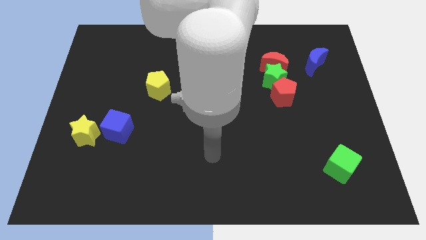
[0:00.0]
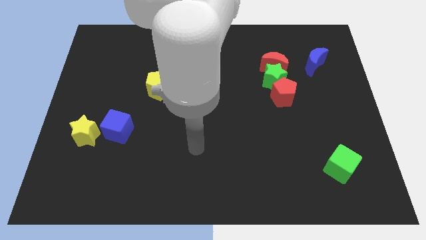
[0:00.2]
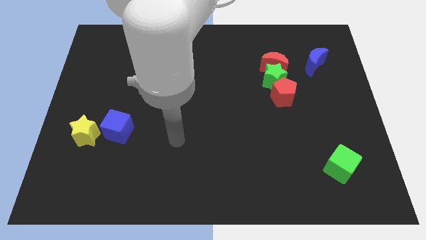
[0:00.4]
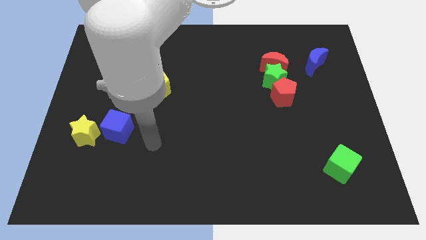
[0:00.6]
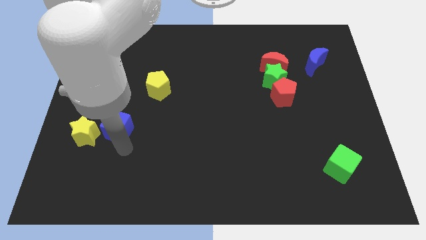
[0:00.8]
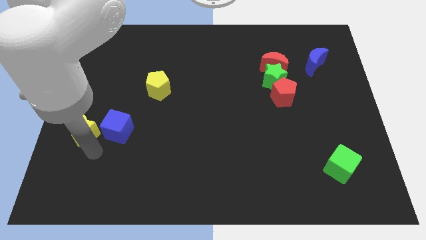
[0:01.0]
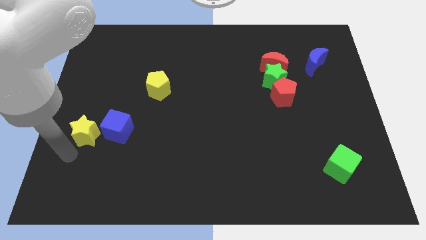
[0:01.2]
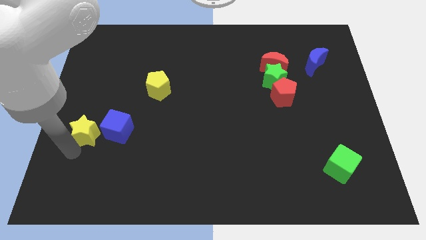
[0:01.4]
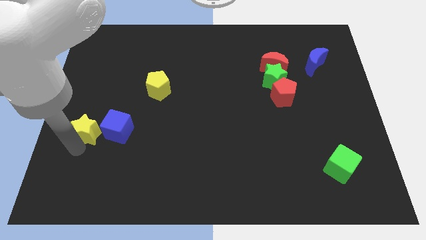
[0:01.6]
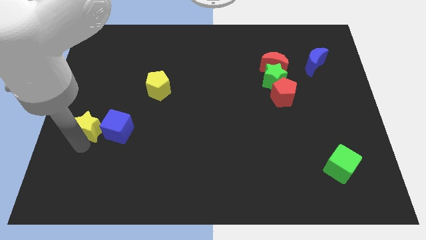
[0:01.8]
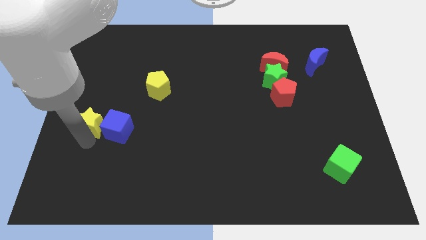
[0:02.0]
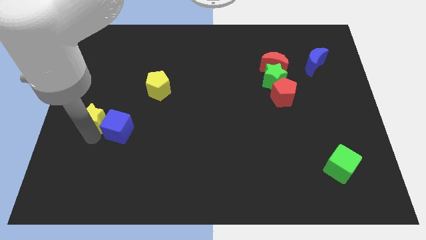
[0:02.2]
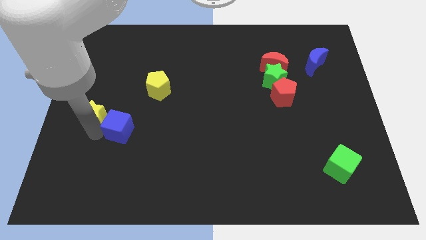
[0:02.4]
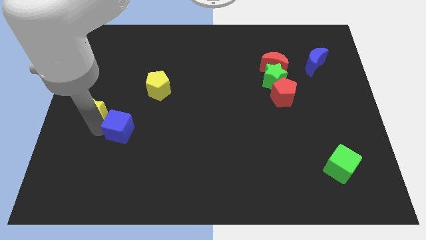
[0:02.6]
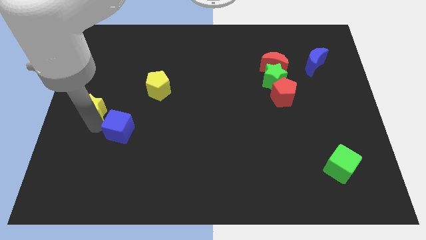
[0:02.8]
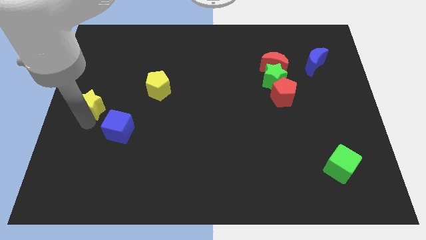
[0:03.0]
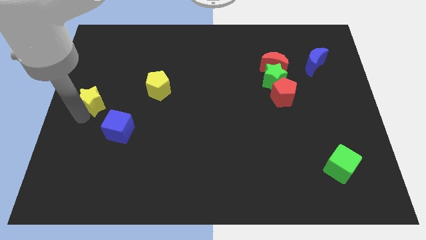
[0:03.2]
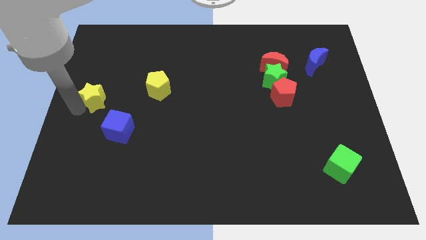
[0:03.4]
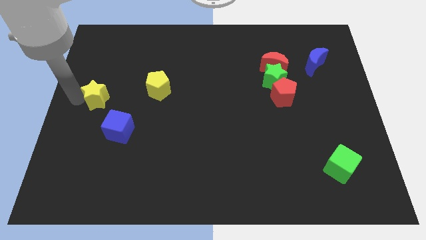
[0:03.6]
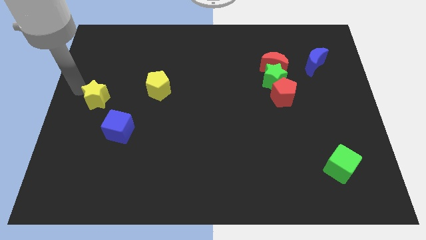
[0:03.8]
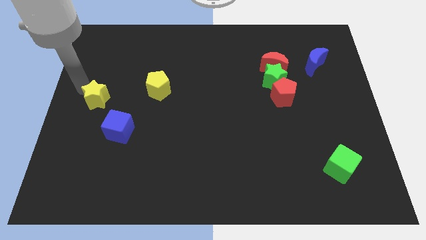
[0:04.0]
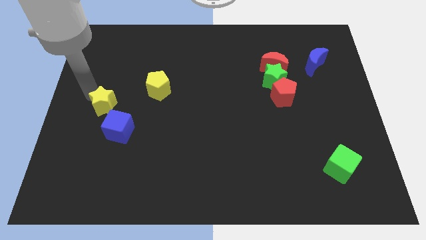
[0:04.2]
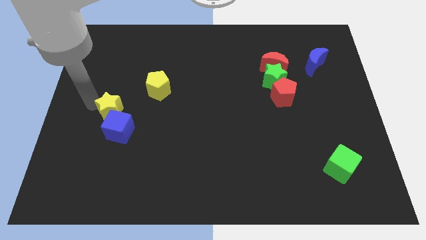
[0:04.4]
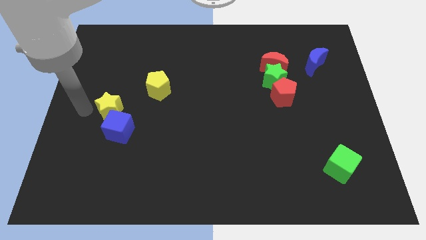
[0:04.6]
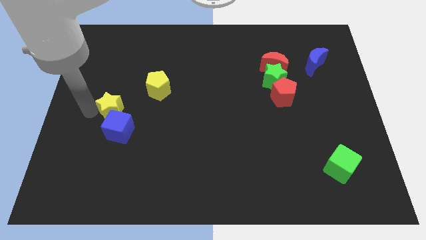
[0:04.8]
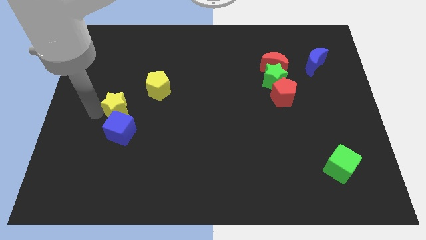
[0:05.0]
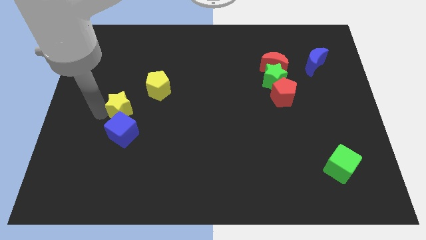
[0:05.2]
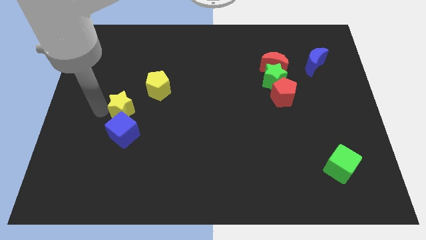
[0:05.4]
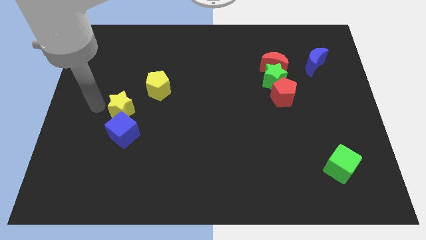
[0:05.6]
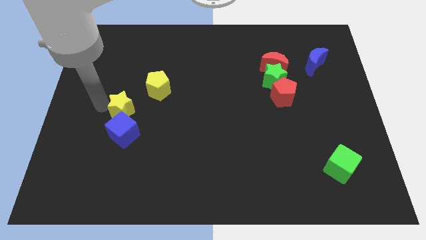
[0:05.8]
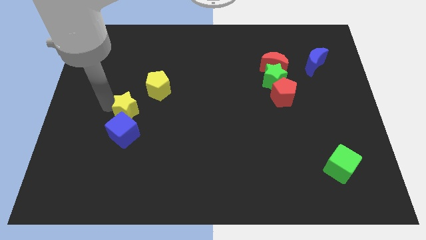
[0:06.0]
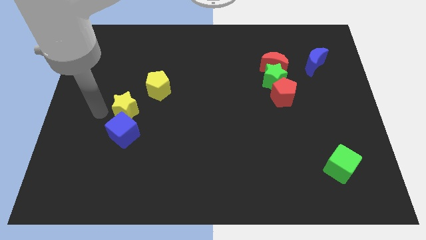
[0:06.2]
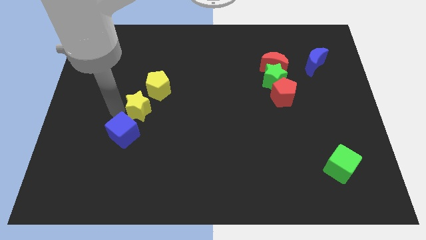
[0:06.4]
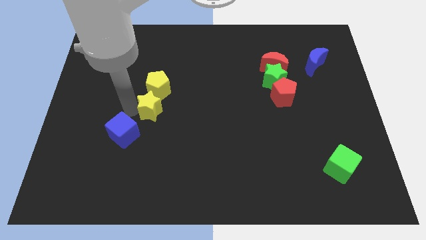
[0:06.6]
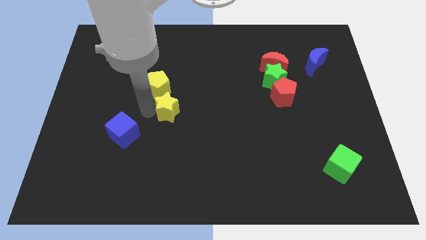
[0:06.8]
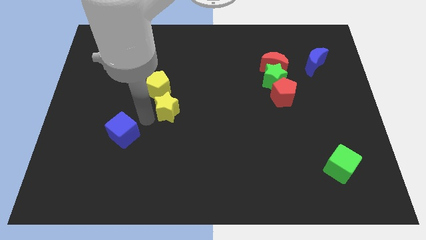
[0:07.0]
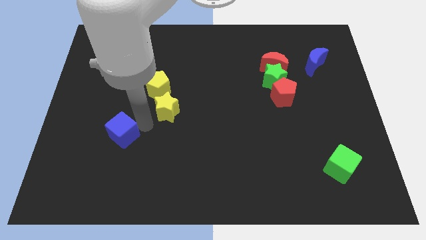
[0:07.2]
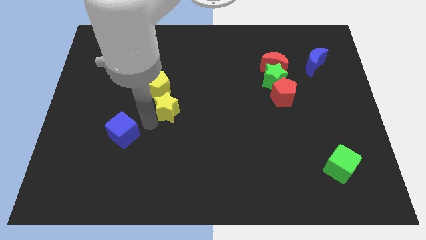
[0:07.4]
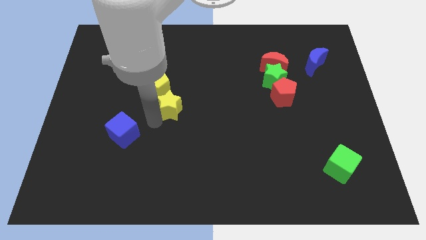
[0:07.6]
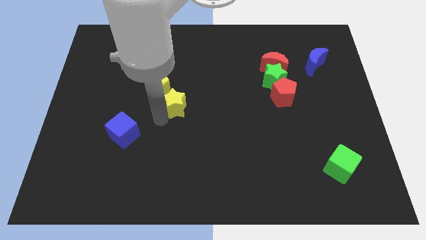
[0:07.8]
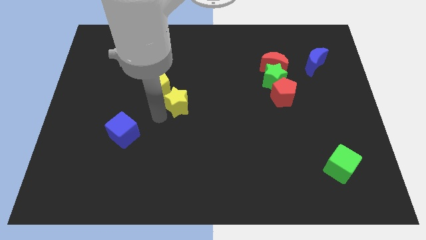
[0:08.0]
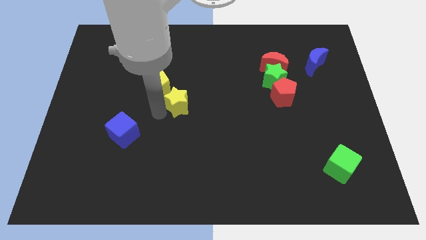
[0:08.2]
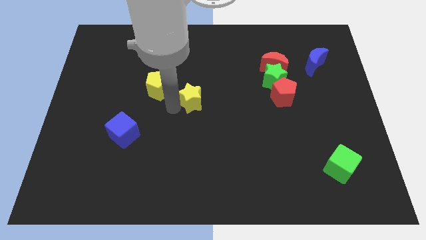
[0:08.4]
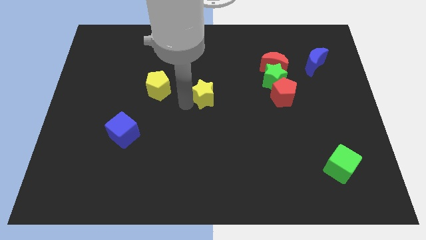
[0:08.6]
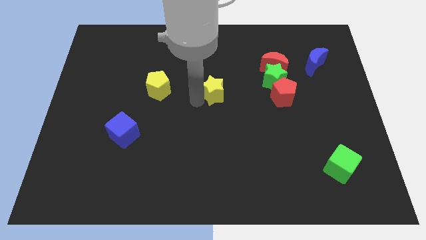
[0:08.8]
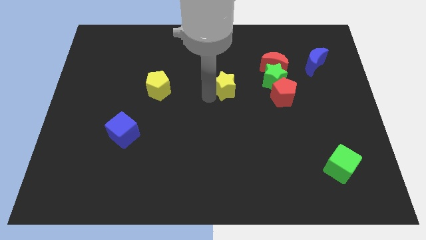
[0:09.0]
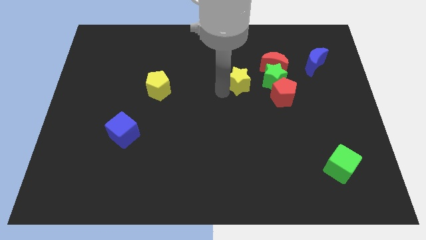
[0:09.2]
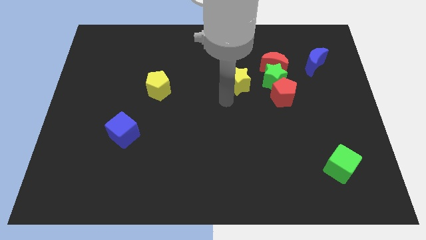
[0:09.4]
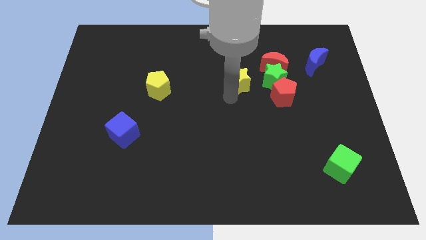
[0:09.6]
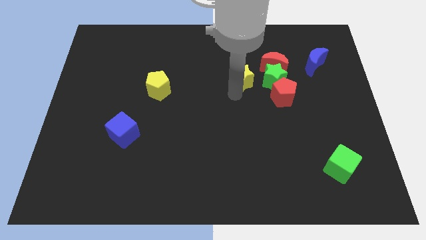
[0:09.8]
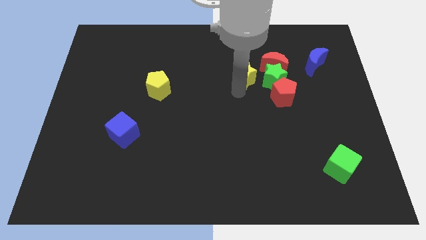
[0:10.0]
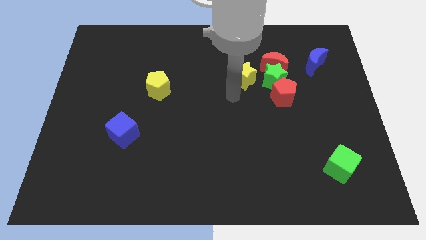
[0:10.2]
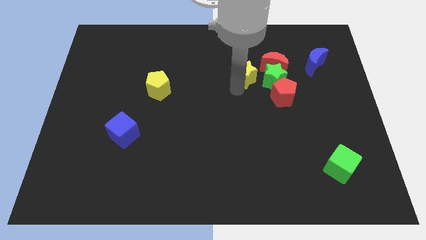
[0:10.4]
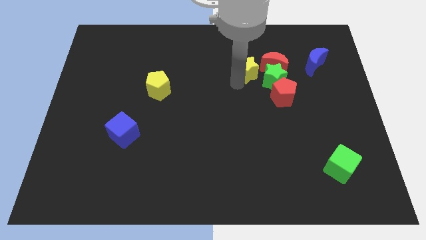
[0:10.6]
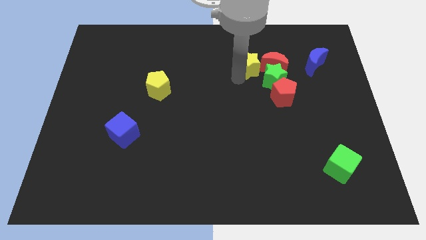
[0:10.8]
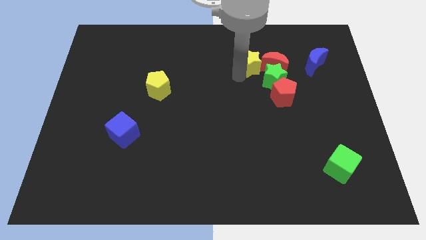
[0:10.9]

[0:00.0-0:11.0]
push the yellow star just left of the blue moon

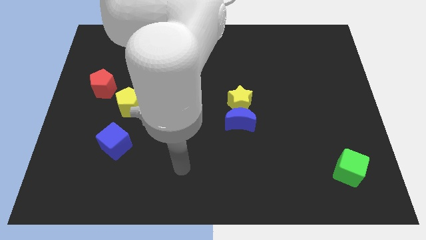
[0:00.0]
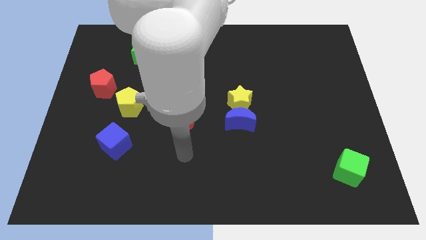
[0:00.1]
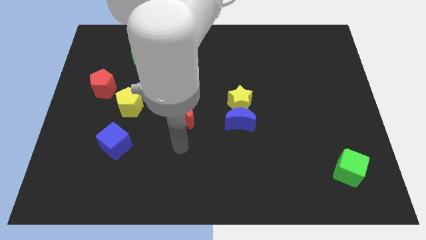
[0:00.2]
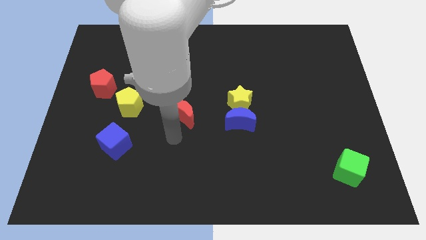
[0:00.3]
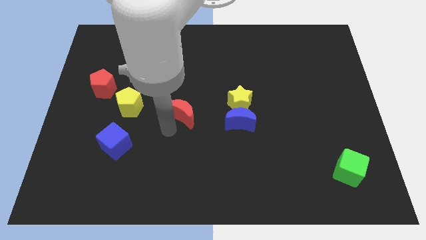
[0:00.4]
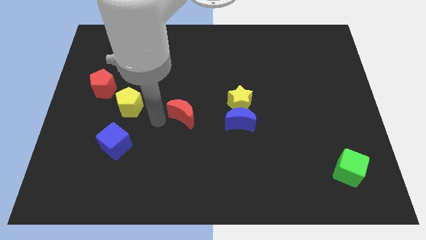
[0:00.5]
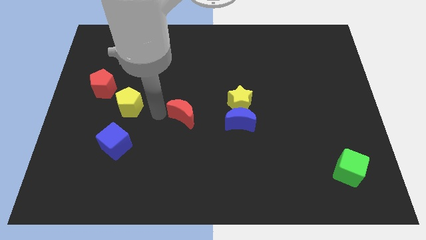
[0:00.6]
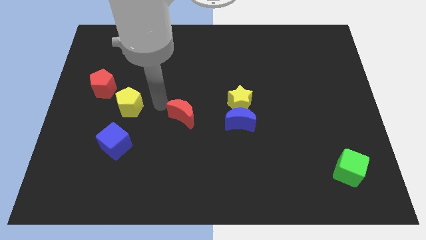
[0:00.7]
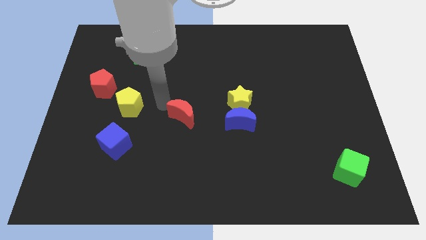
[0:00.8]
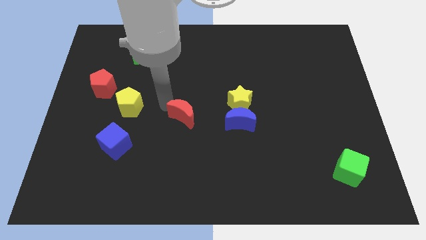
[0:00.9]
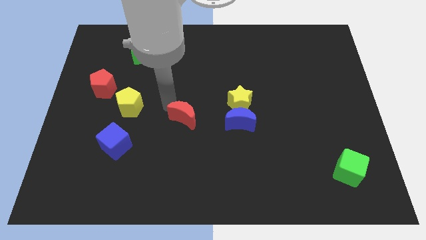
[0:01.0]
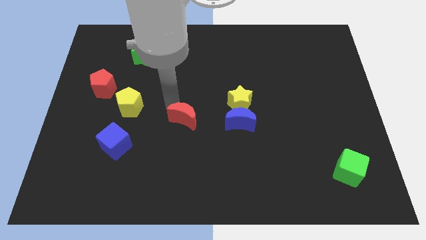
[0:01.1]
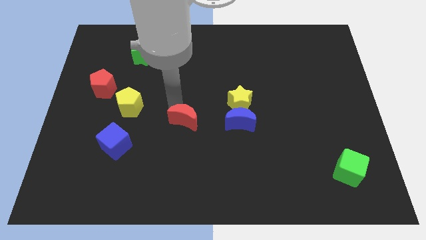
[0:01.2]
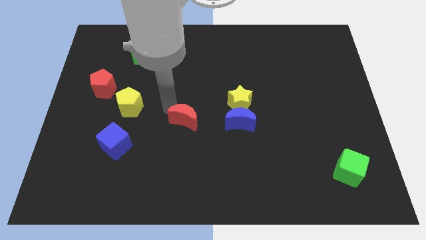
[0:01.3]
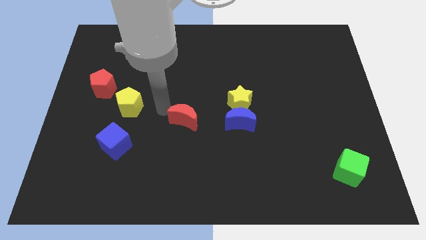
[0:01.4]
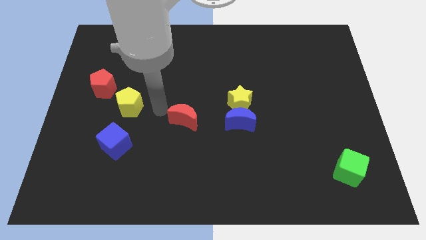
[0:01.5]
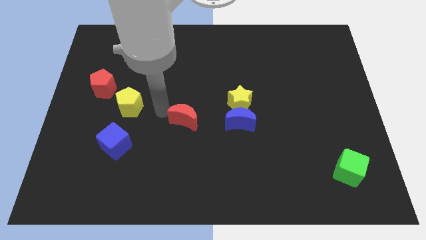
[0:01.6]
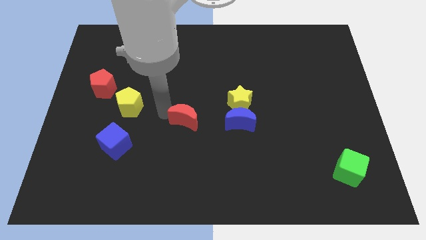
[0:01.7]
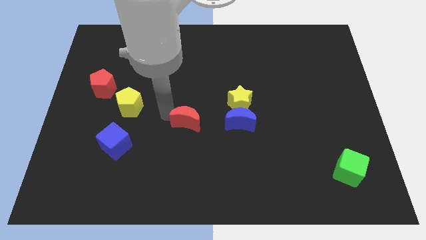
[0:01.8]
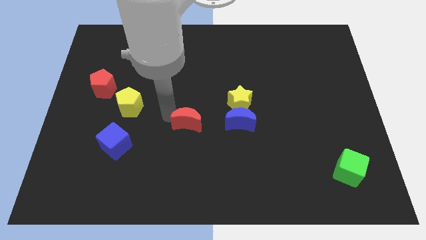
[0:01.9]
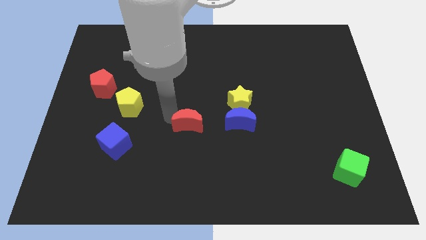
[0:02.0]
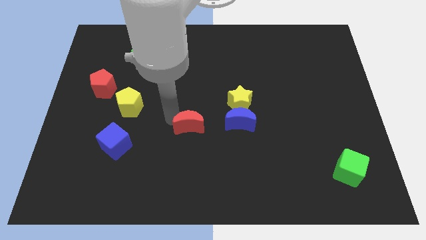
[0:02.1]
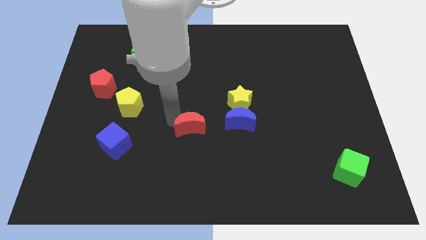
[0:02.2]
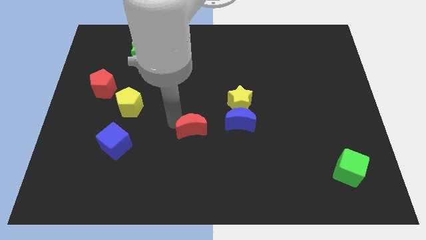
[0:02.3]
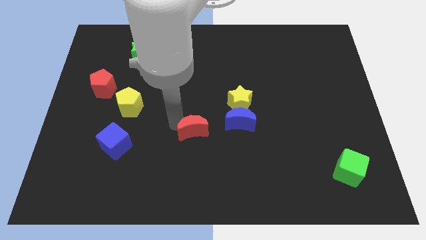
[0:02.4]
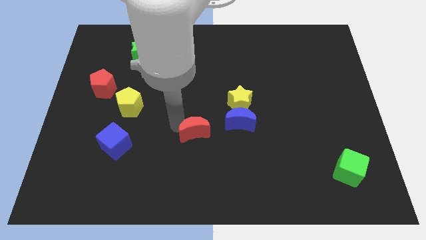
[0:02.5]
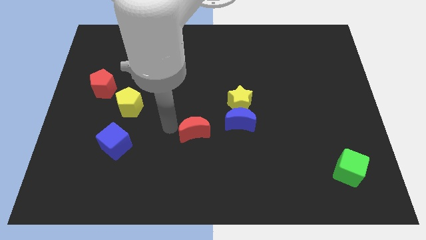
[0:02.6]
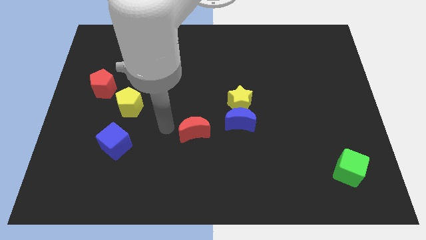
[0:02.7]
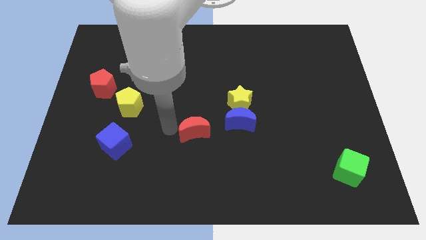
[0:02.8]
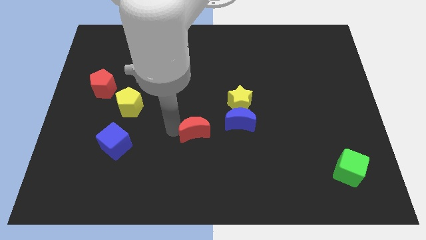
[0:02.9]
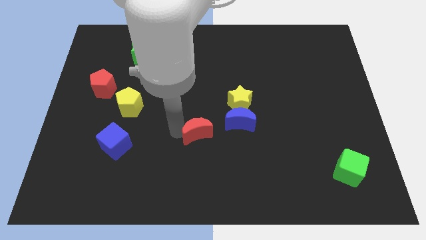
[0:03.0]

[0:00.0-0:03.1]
push the red moon to the bottom left side of the yellow star
